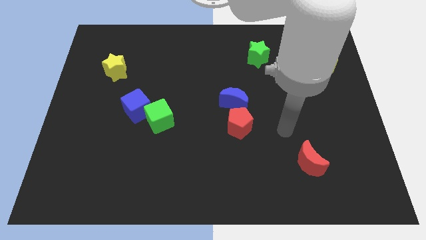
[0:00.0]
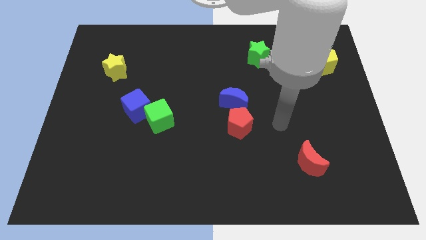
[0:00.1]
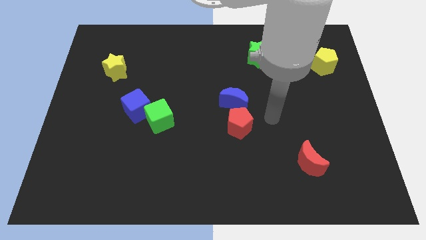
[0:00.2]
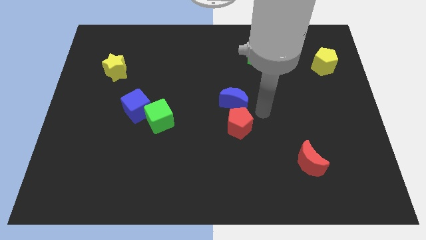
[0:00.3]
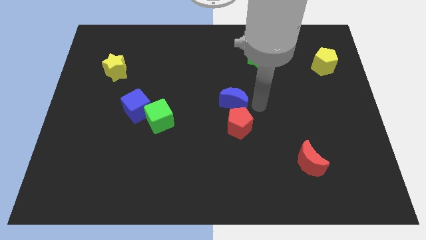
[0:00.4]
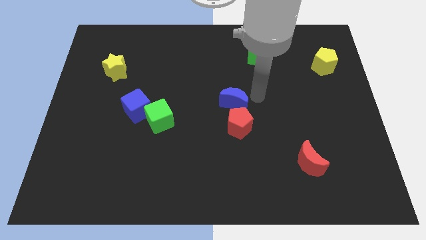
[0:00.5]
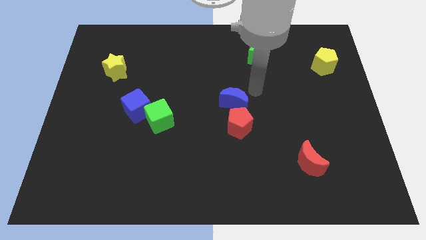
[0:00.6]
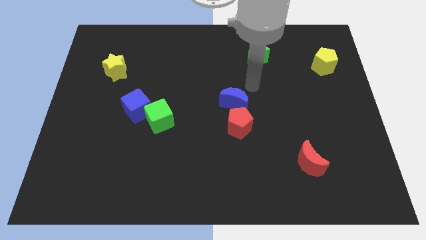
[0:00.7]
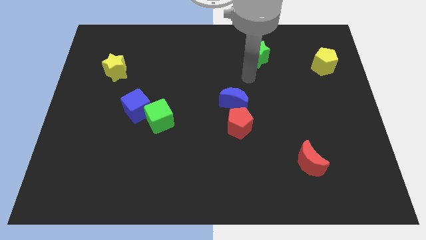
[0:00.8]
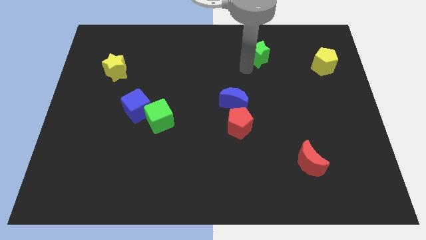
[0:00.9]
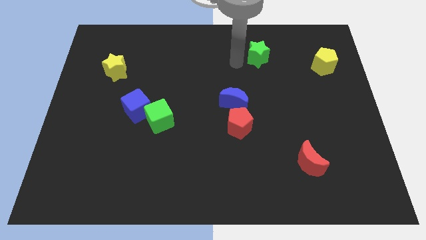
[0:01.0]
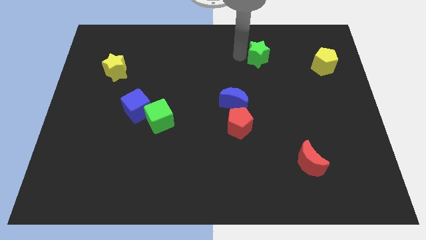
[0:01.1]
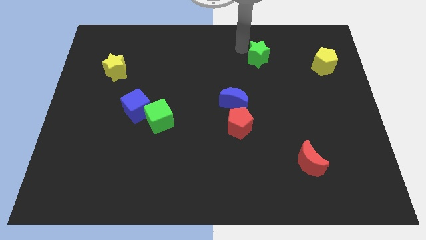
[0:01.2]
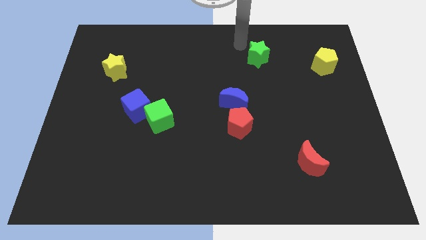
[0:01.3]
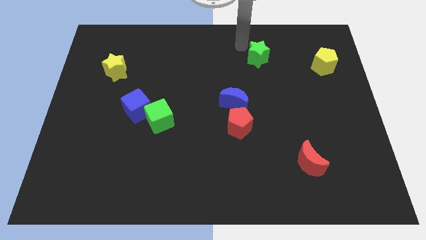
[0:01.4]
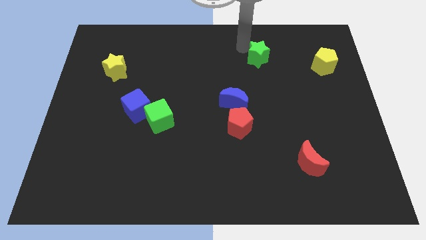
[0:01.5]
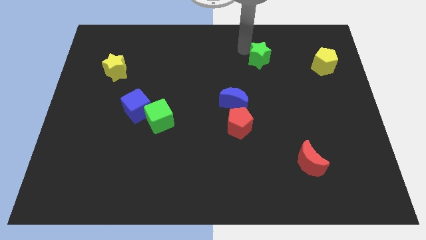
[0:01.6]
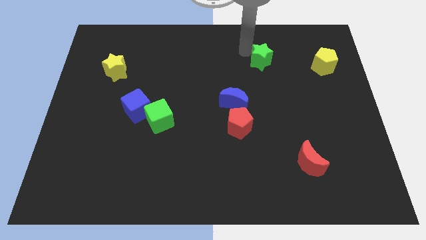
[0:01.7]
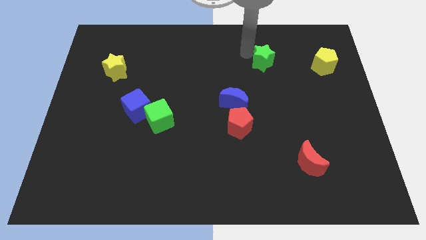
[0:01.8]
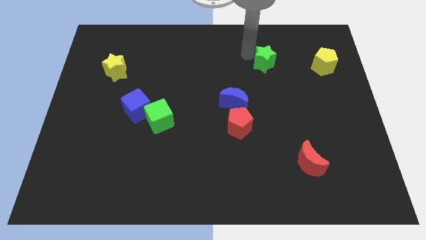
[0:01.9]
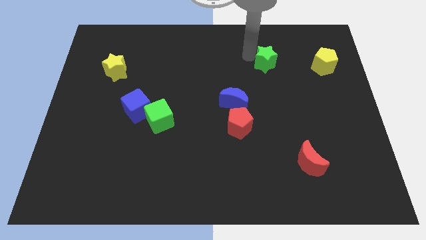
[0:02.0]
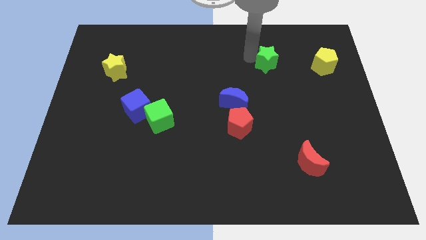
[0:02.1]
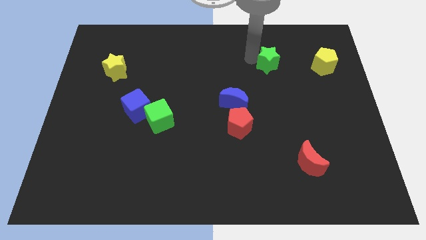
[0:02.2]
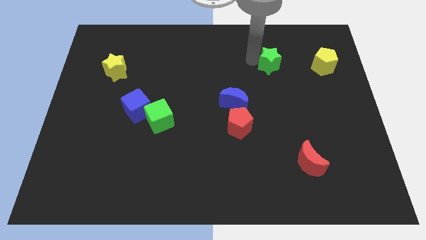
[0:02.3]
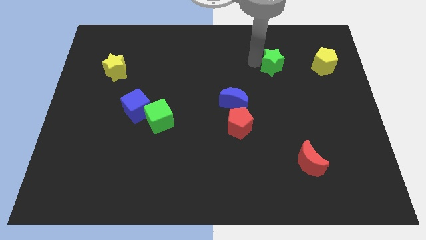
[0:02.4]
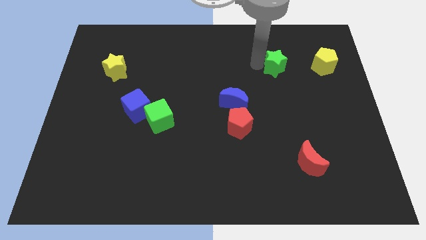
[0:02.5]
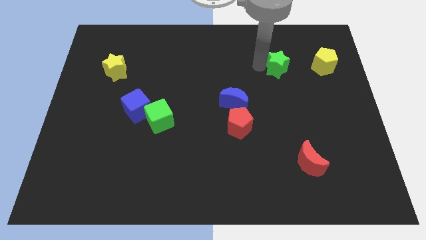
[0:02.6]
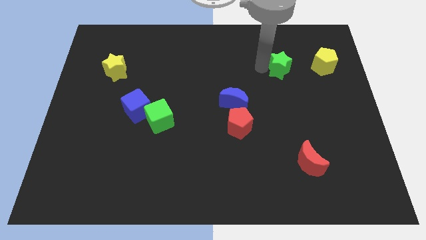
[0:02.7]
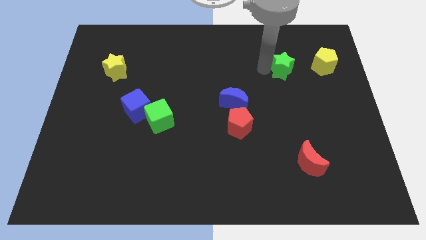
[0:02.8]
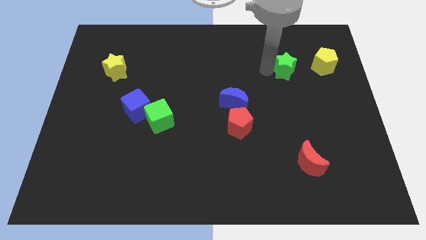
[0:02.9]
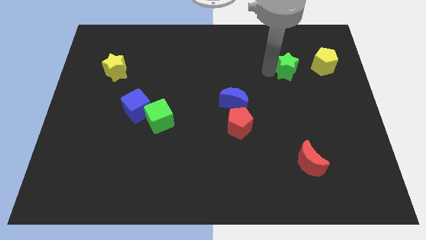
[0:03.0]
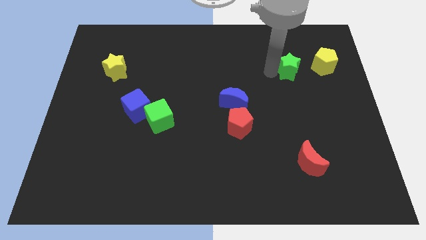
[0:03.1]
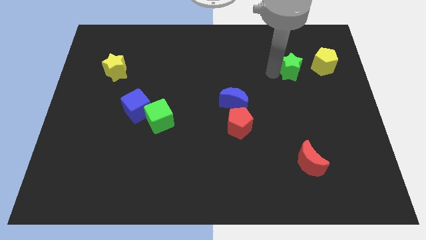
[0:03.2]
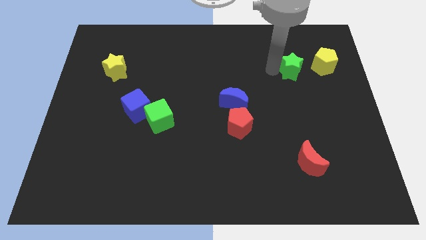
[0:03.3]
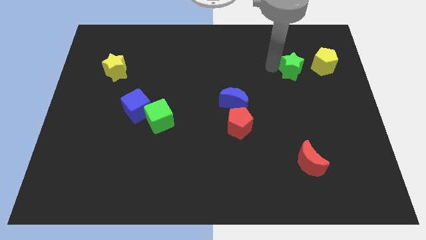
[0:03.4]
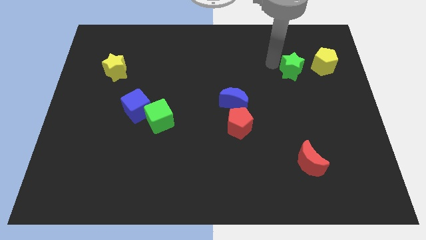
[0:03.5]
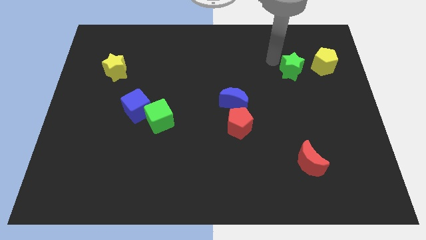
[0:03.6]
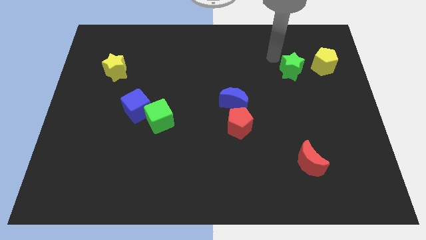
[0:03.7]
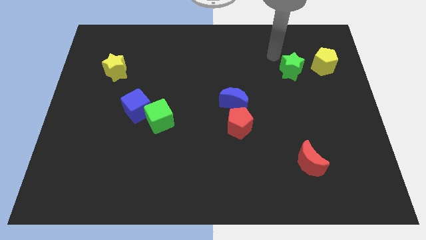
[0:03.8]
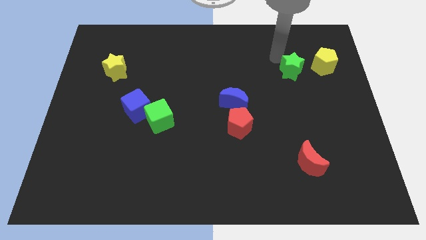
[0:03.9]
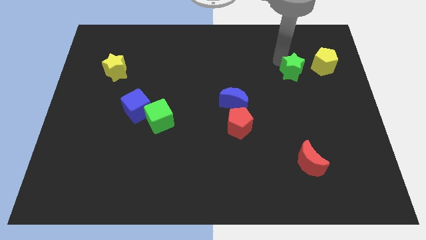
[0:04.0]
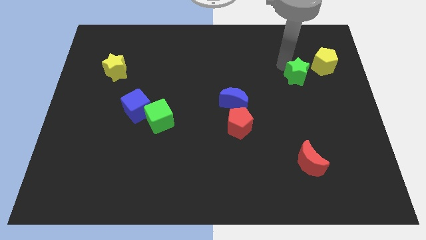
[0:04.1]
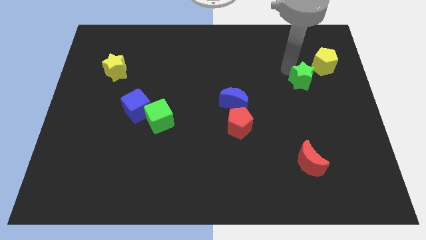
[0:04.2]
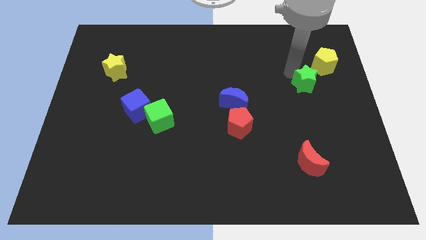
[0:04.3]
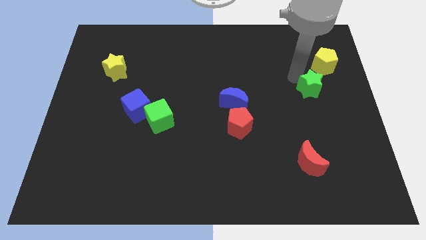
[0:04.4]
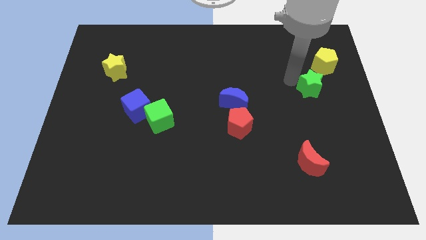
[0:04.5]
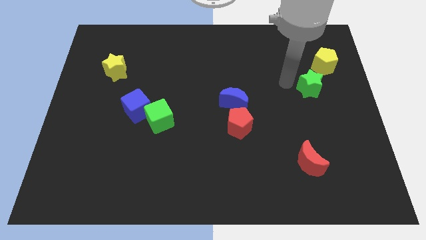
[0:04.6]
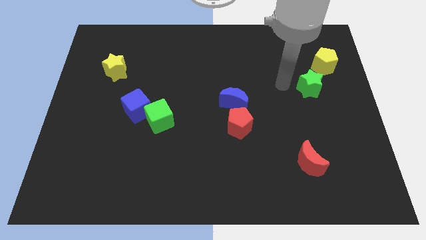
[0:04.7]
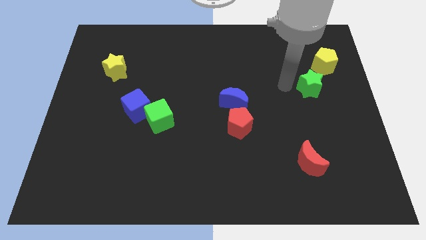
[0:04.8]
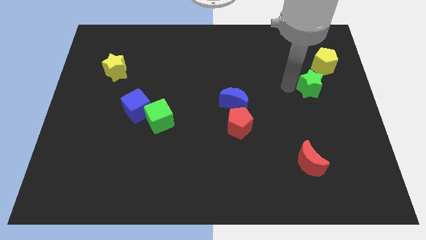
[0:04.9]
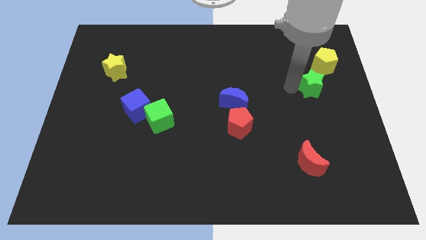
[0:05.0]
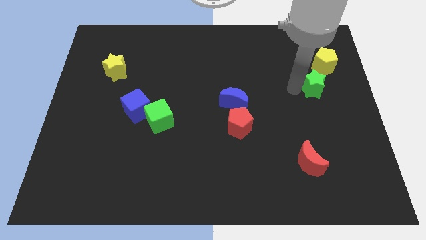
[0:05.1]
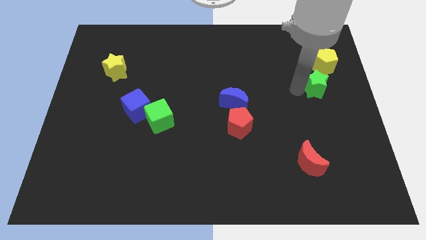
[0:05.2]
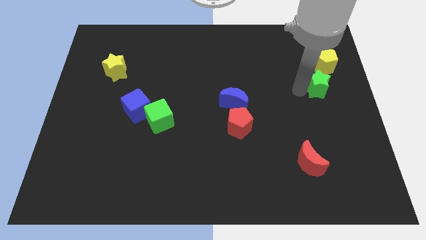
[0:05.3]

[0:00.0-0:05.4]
move the green star to the right side of the board
